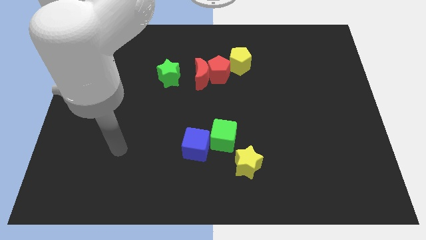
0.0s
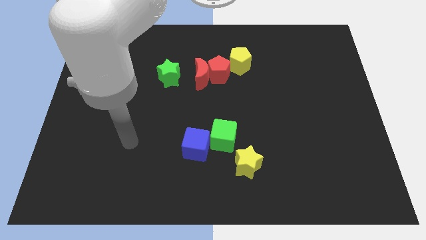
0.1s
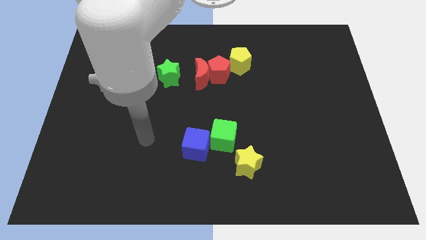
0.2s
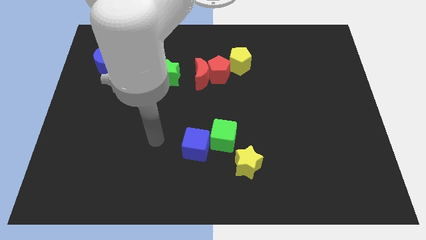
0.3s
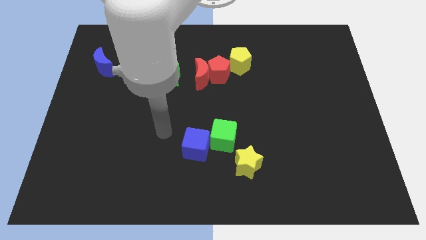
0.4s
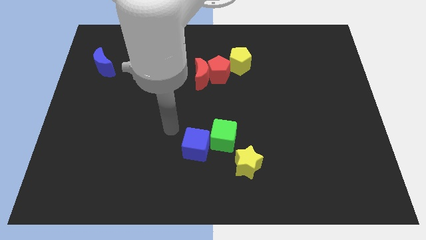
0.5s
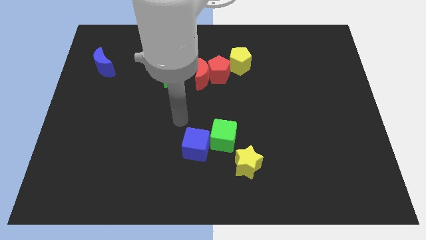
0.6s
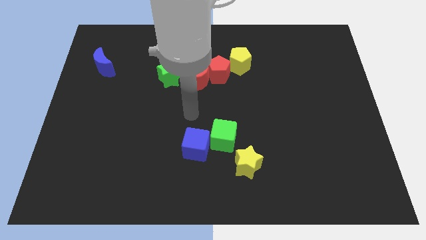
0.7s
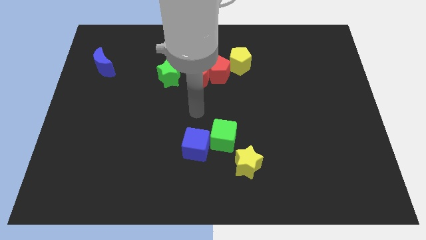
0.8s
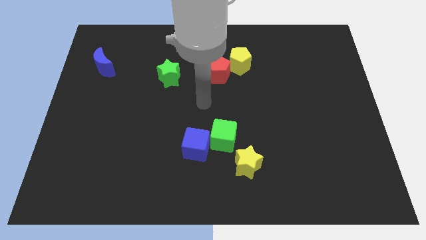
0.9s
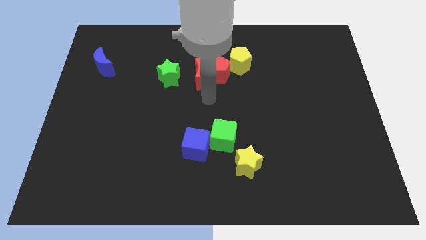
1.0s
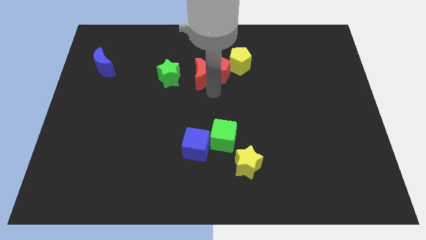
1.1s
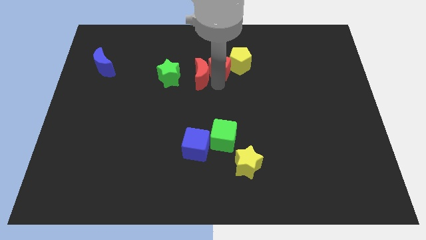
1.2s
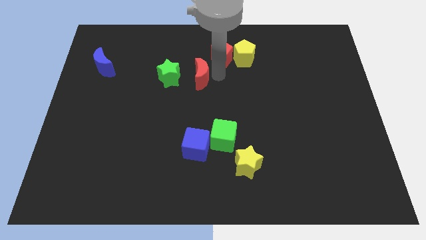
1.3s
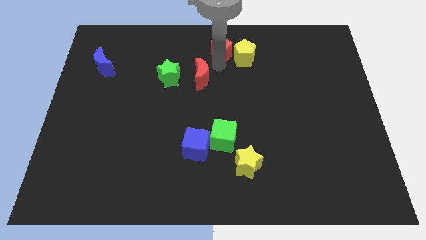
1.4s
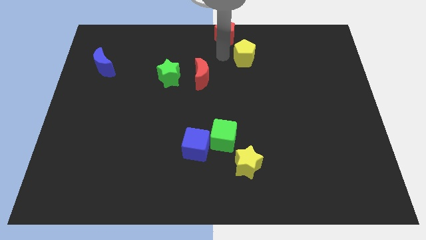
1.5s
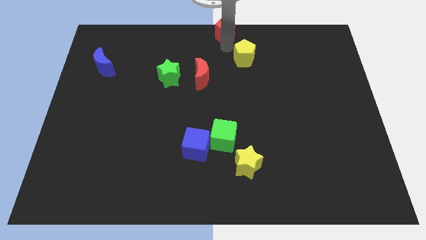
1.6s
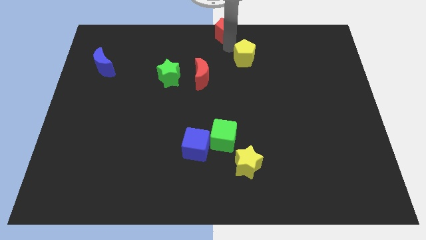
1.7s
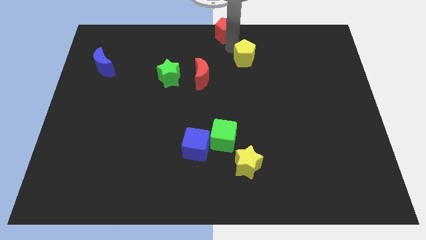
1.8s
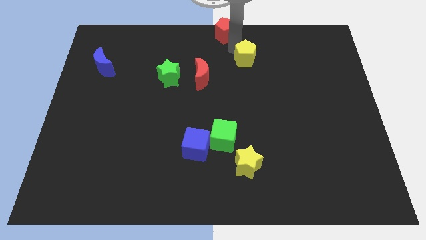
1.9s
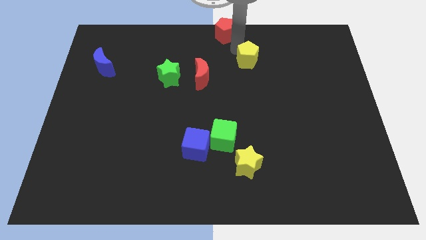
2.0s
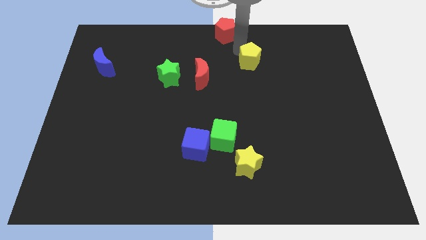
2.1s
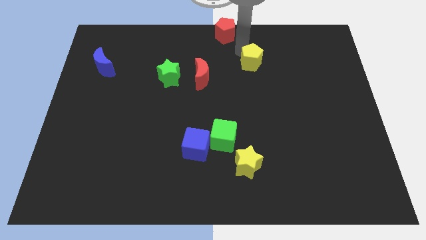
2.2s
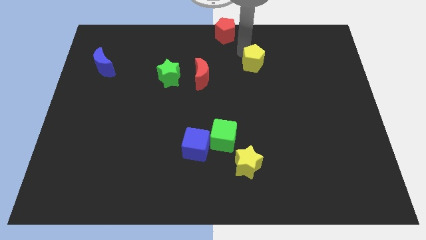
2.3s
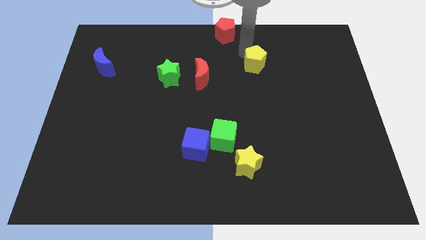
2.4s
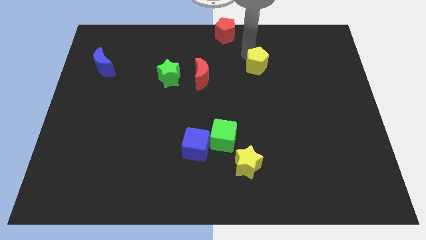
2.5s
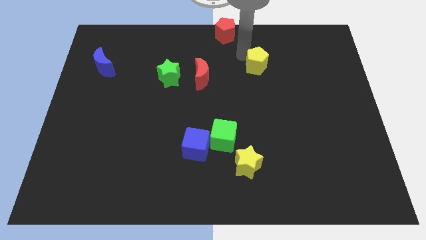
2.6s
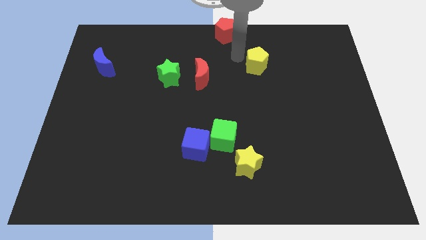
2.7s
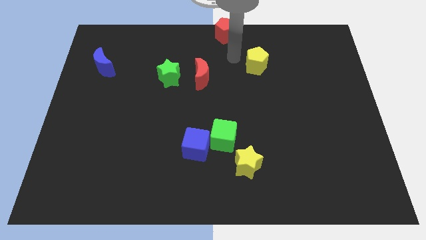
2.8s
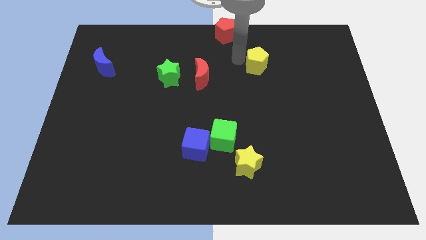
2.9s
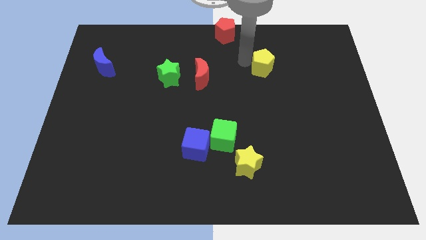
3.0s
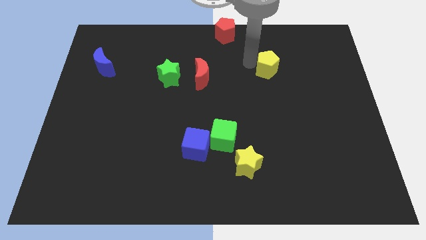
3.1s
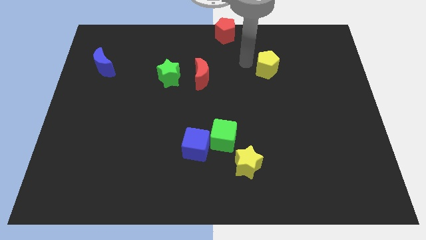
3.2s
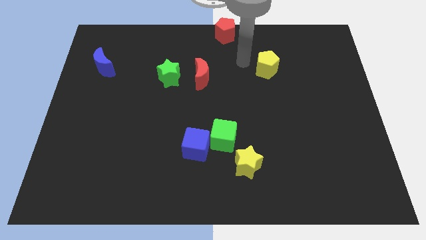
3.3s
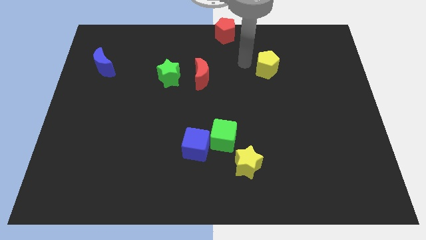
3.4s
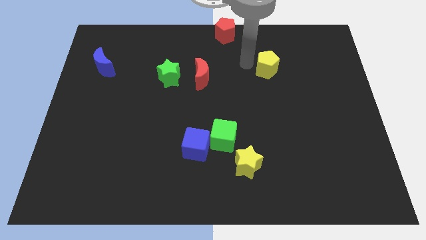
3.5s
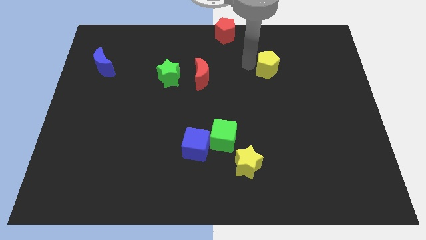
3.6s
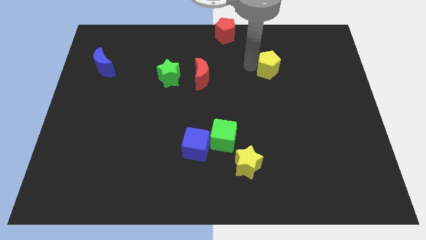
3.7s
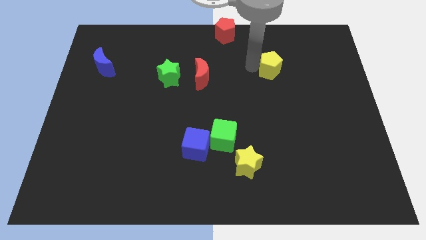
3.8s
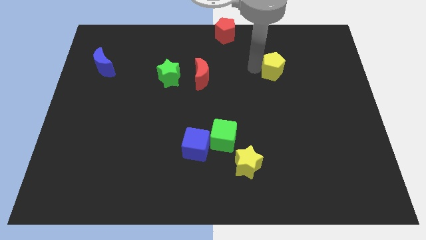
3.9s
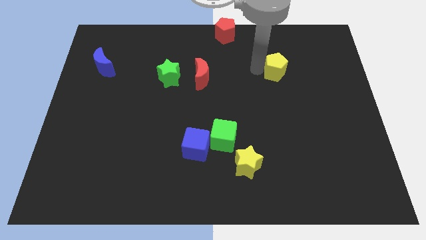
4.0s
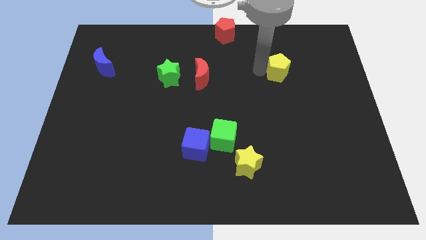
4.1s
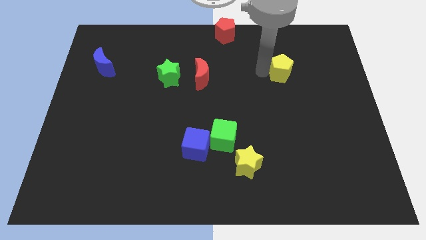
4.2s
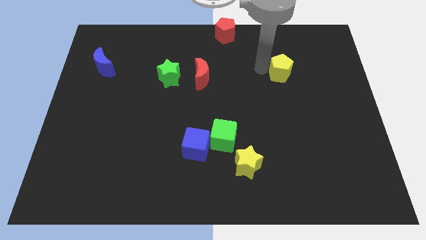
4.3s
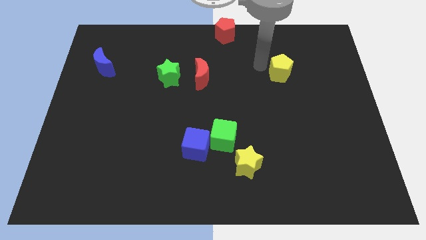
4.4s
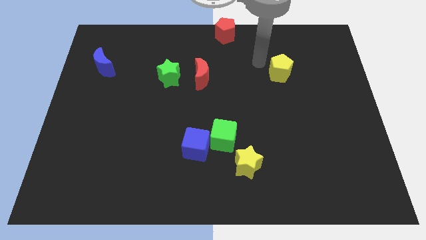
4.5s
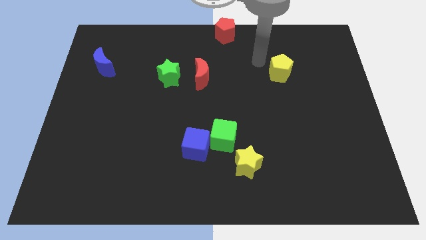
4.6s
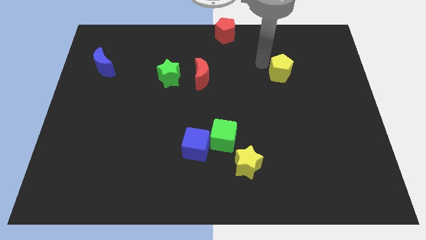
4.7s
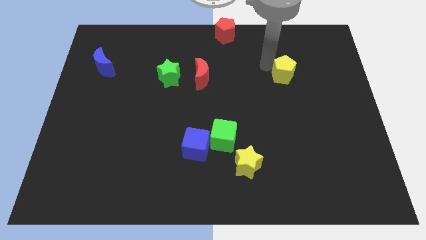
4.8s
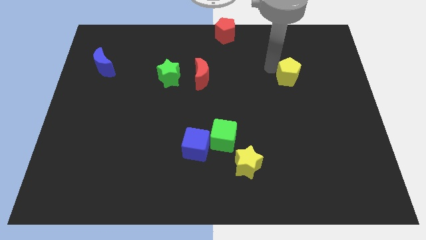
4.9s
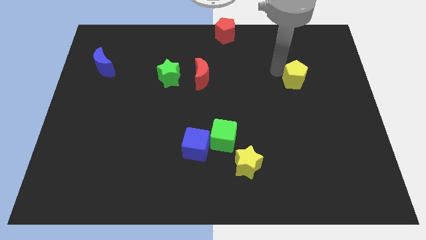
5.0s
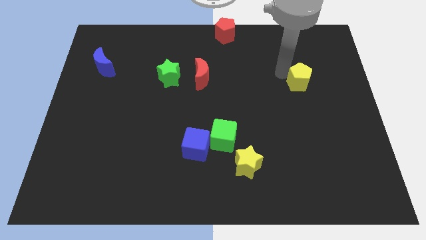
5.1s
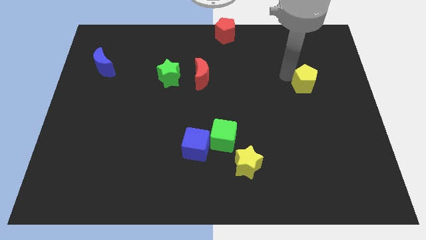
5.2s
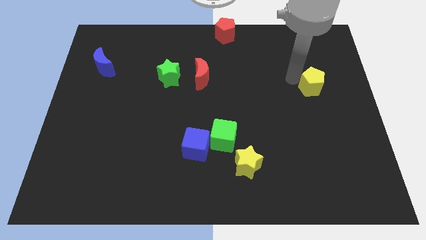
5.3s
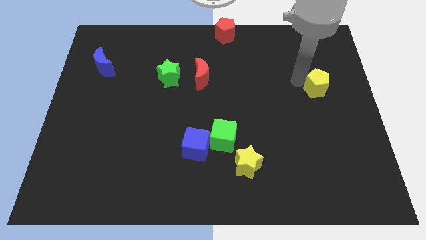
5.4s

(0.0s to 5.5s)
move the yellow pentagon to the center right

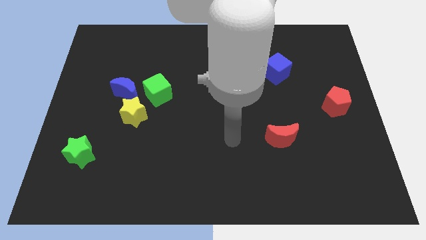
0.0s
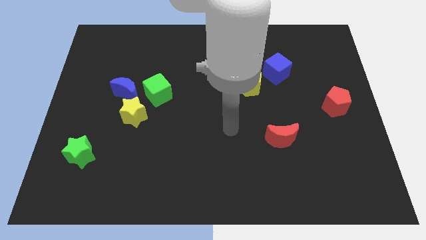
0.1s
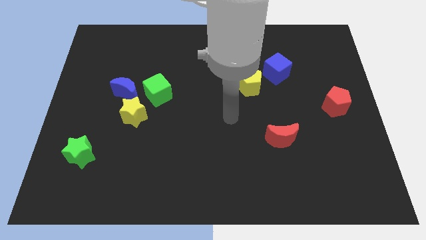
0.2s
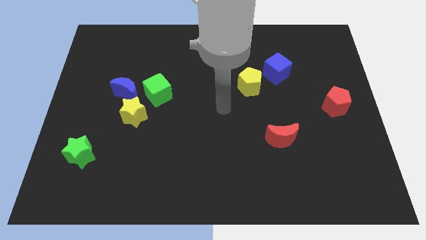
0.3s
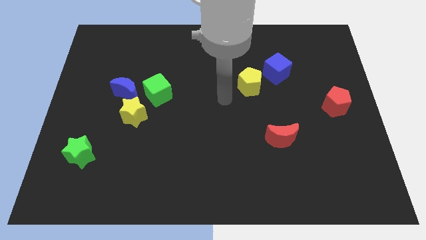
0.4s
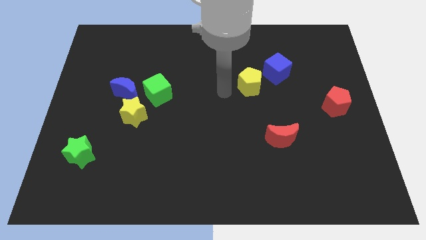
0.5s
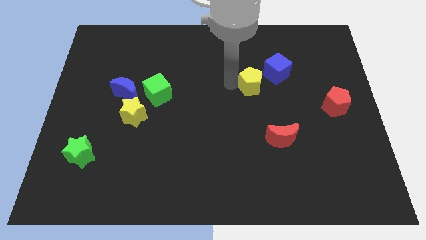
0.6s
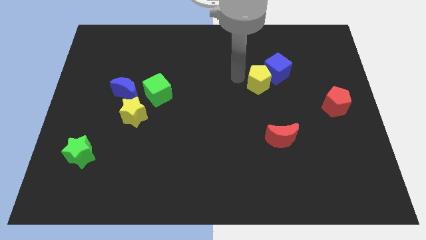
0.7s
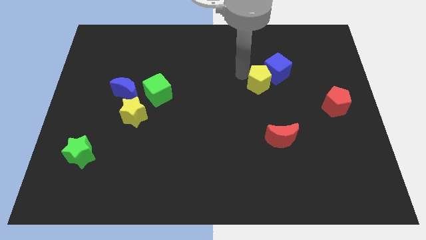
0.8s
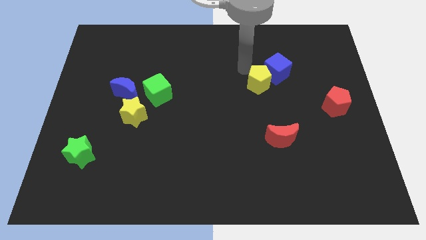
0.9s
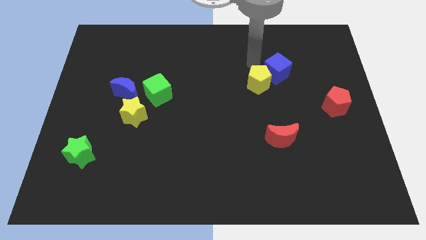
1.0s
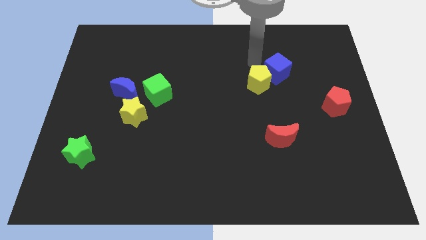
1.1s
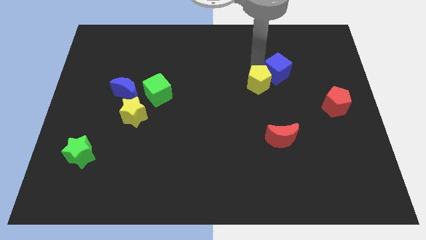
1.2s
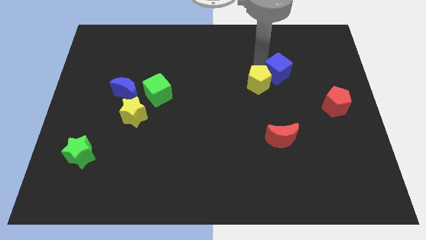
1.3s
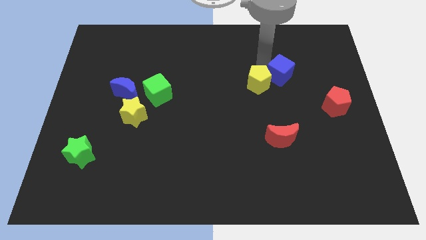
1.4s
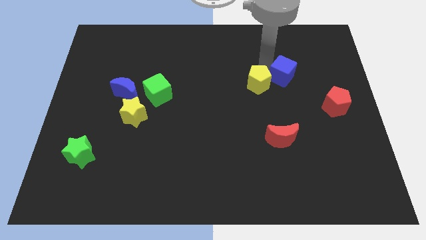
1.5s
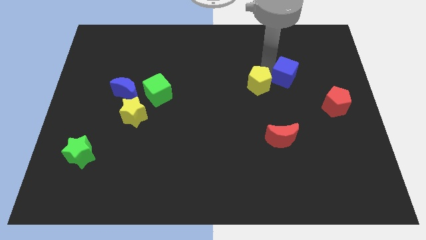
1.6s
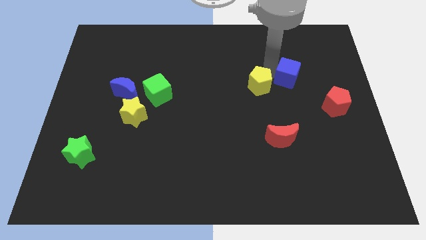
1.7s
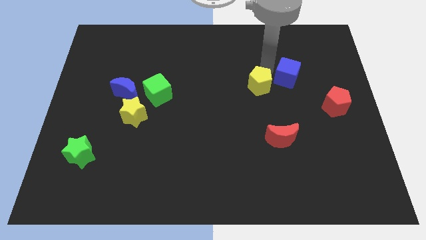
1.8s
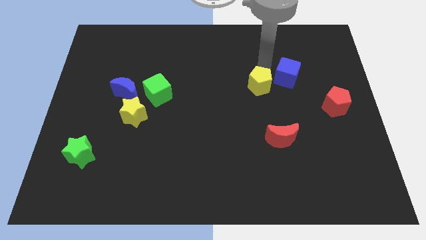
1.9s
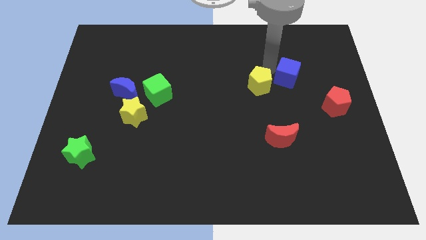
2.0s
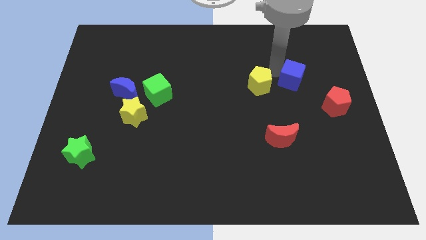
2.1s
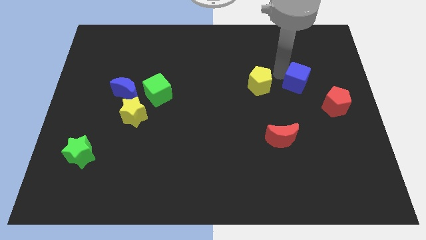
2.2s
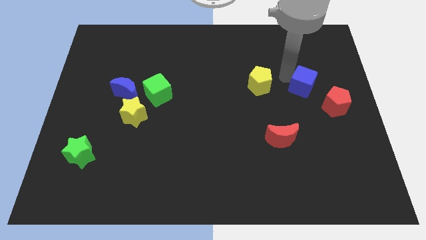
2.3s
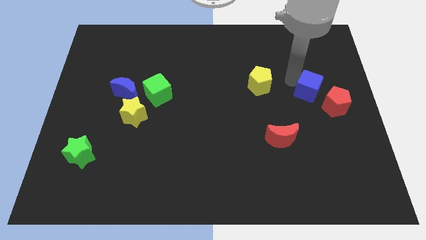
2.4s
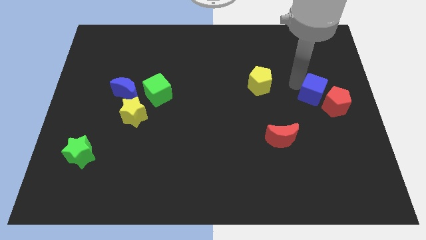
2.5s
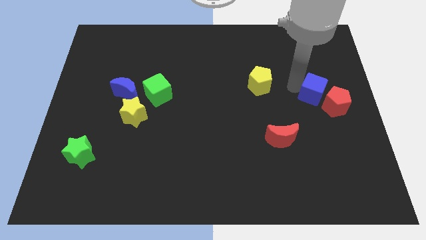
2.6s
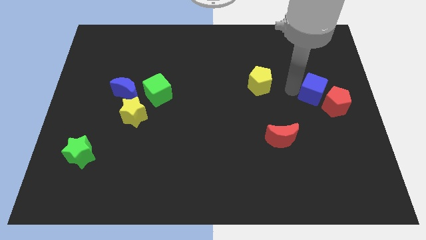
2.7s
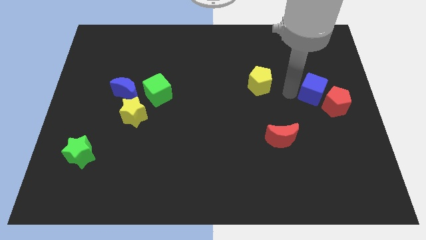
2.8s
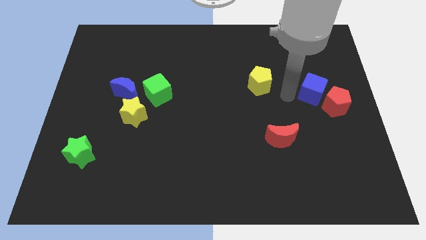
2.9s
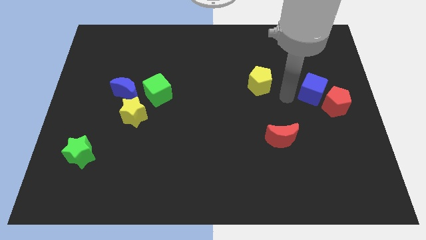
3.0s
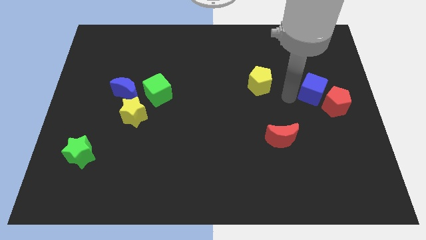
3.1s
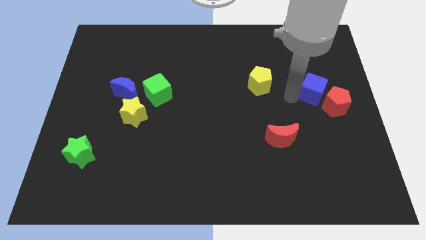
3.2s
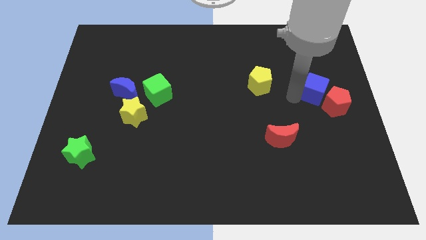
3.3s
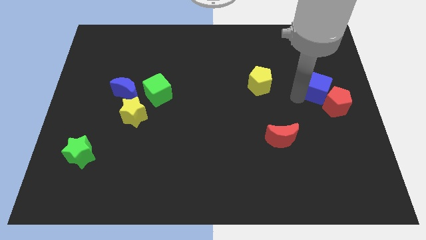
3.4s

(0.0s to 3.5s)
slide the blue cube to the right side of the board
